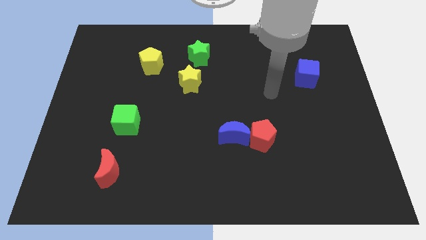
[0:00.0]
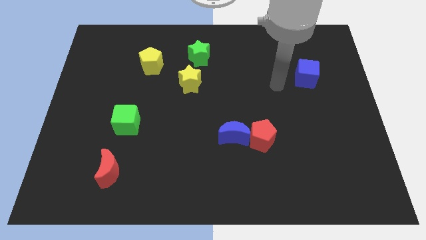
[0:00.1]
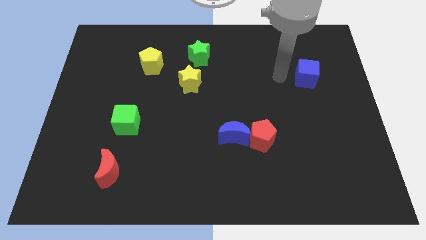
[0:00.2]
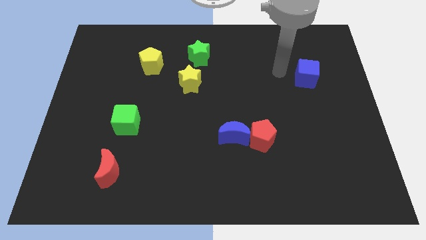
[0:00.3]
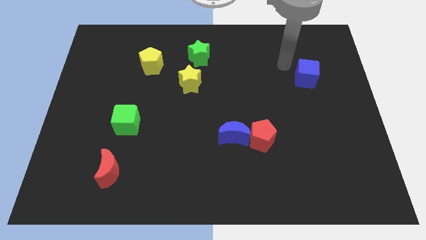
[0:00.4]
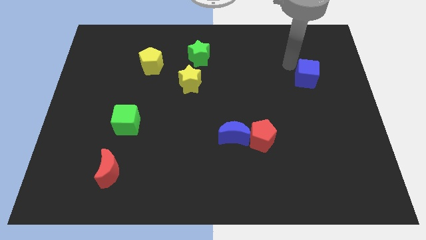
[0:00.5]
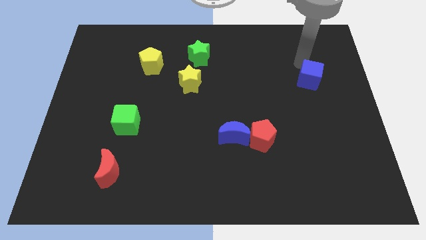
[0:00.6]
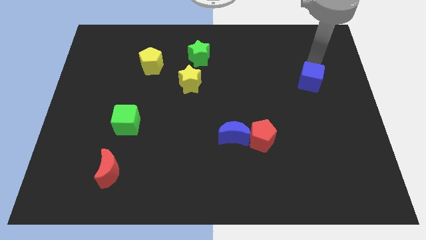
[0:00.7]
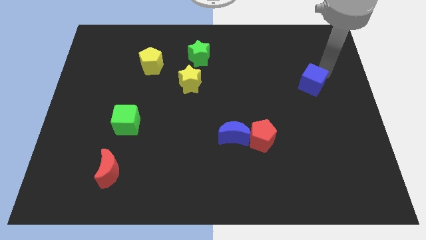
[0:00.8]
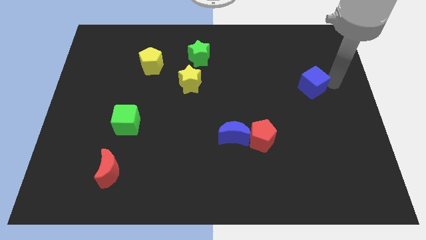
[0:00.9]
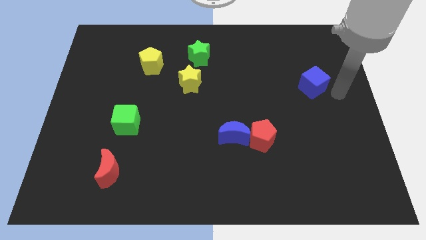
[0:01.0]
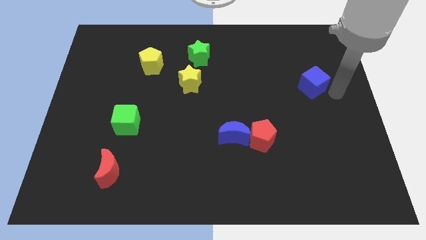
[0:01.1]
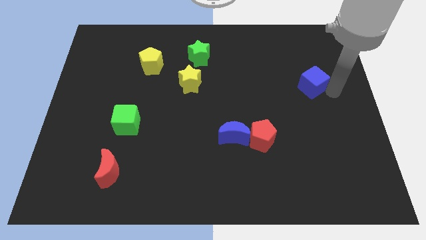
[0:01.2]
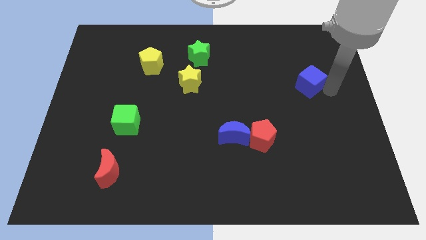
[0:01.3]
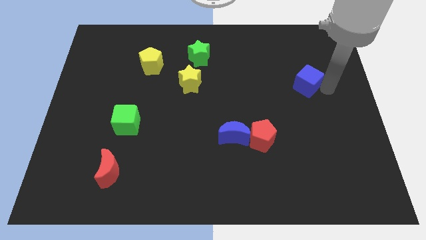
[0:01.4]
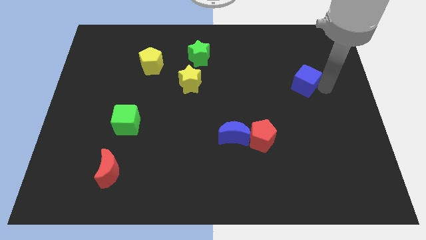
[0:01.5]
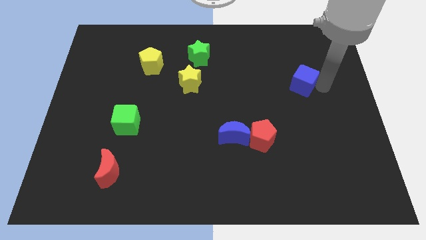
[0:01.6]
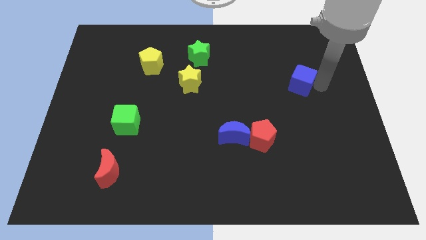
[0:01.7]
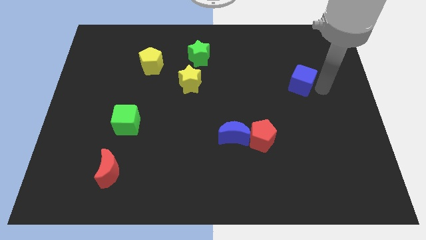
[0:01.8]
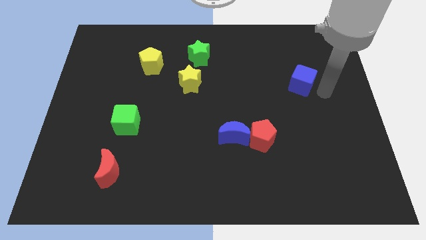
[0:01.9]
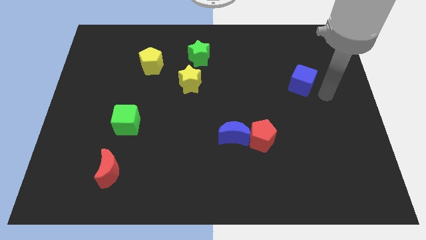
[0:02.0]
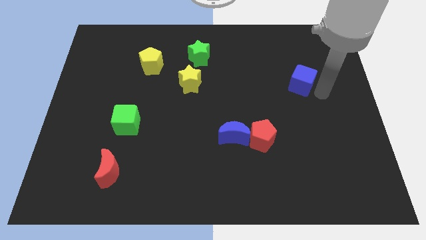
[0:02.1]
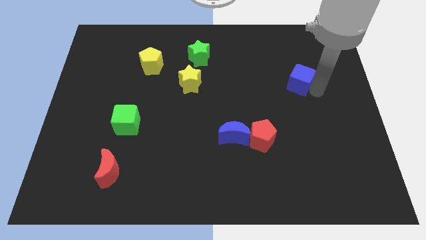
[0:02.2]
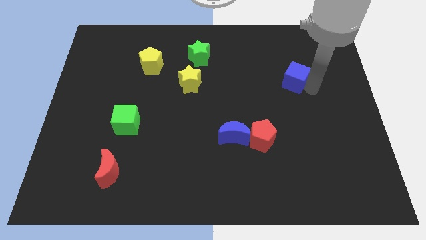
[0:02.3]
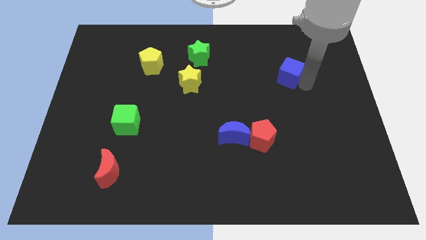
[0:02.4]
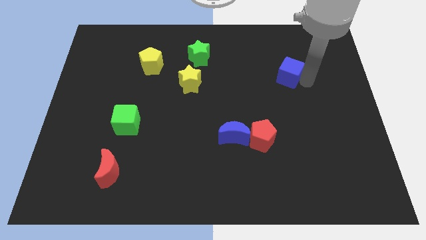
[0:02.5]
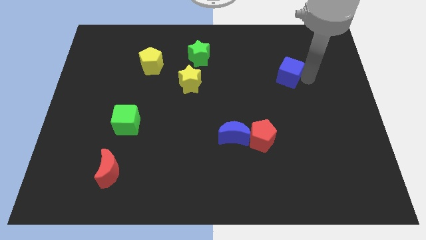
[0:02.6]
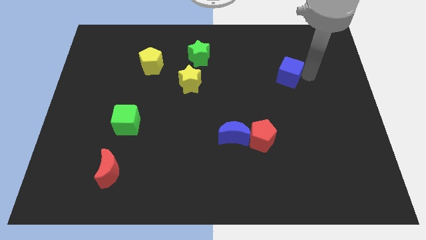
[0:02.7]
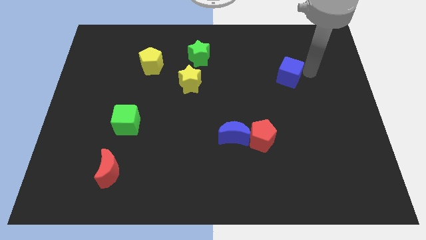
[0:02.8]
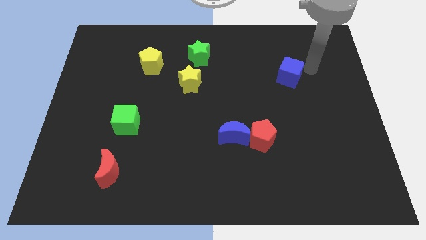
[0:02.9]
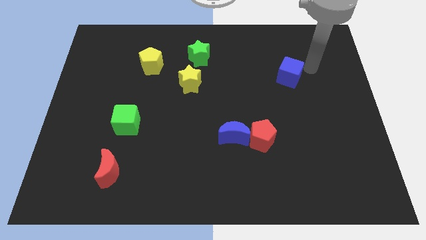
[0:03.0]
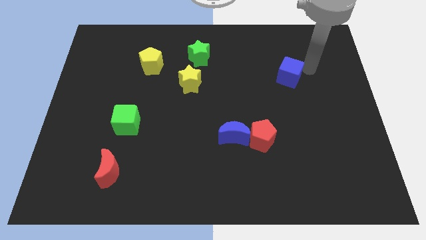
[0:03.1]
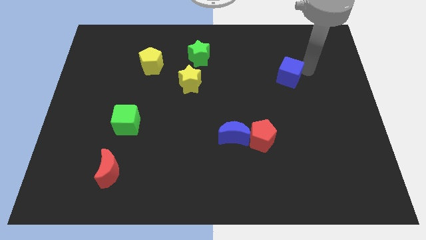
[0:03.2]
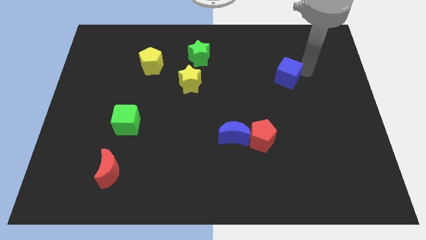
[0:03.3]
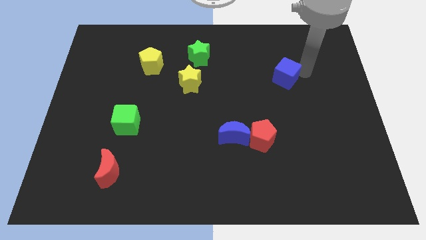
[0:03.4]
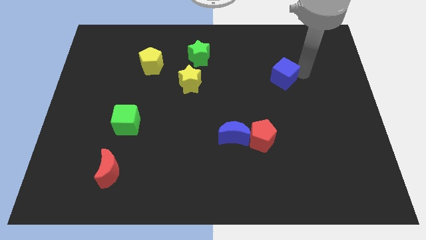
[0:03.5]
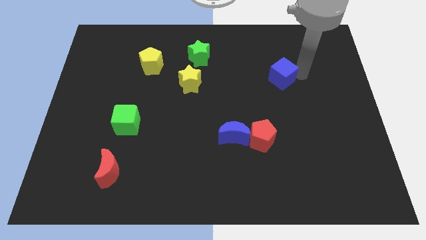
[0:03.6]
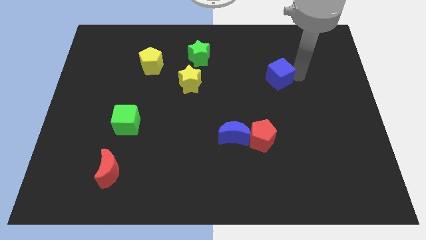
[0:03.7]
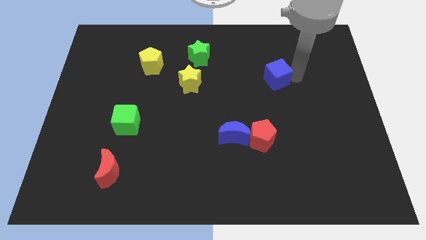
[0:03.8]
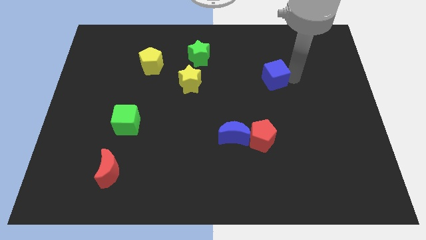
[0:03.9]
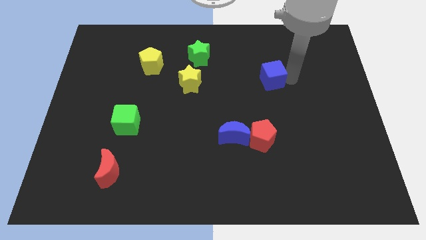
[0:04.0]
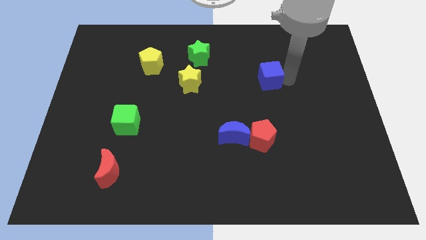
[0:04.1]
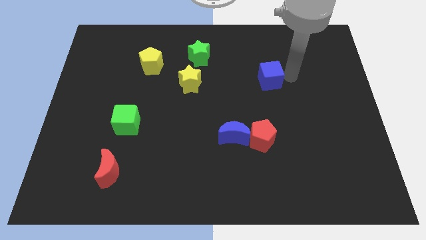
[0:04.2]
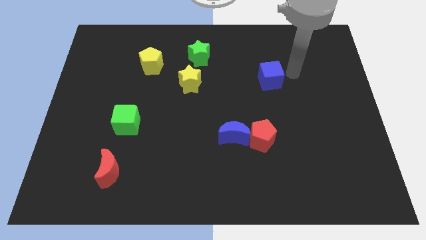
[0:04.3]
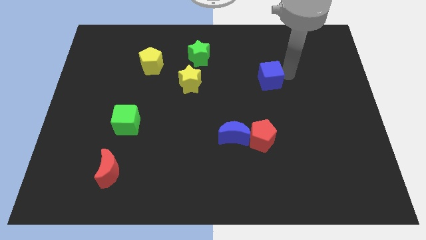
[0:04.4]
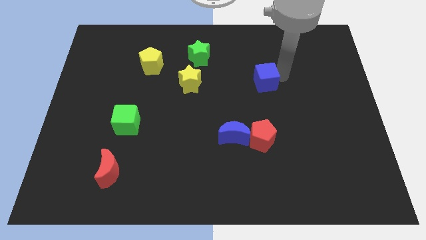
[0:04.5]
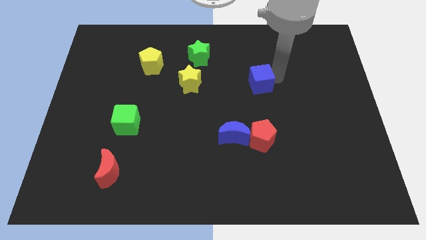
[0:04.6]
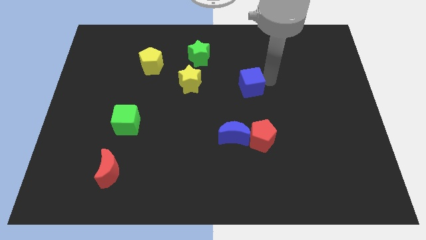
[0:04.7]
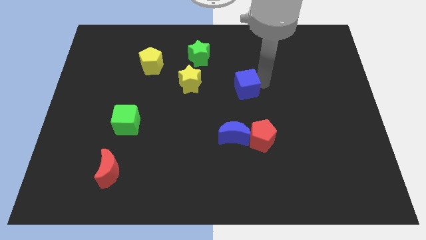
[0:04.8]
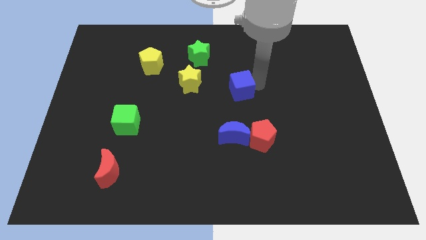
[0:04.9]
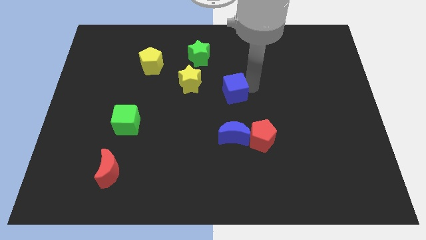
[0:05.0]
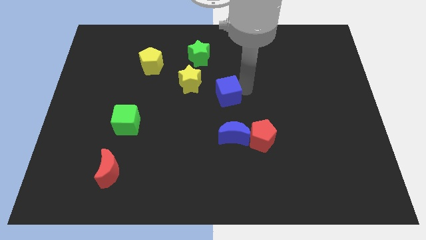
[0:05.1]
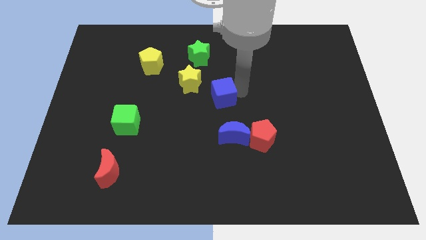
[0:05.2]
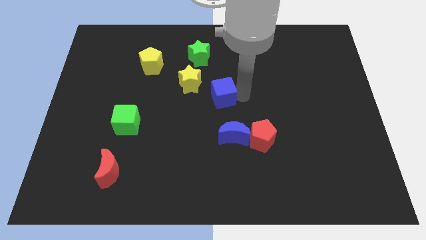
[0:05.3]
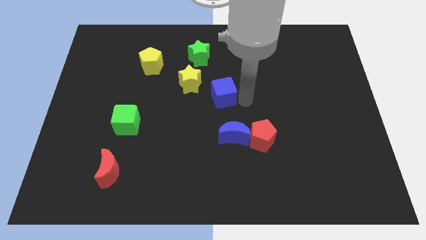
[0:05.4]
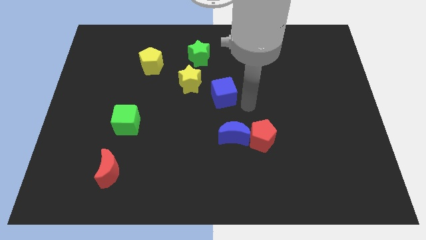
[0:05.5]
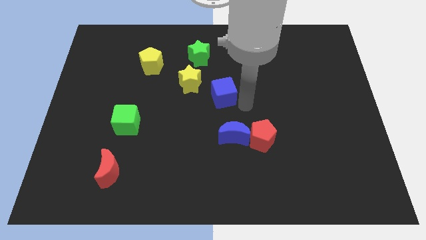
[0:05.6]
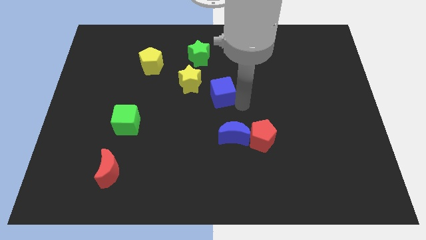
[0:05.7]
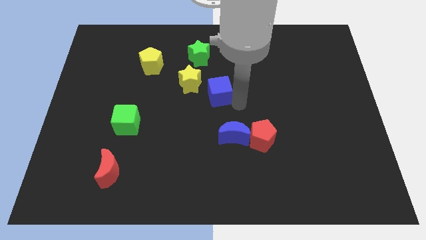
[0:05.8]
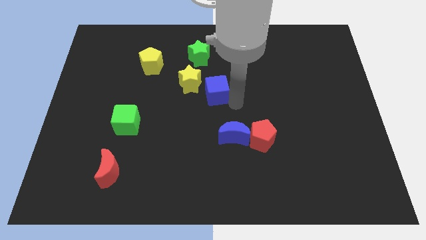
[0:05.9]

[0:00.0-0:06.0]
slide the blue cube to the bottom of the green star

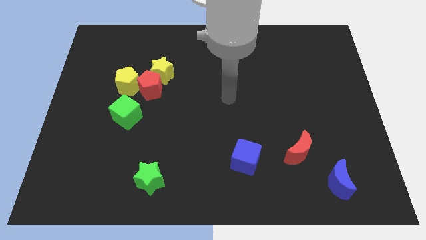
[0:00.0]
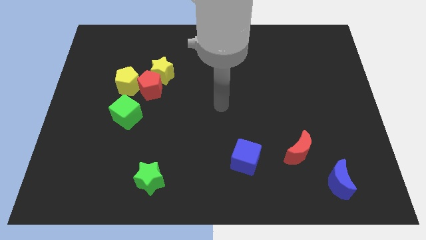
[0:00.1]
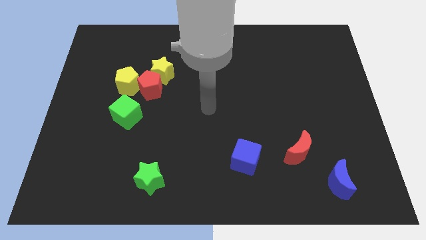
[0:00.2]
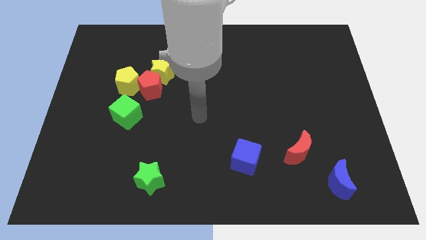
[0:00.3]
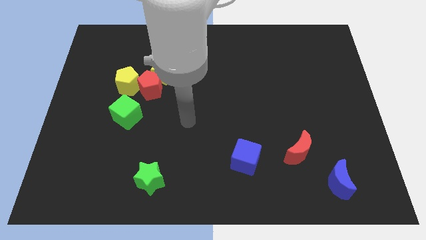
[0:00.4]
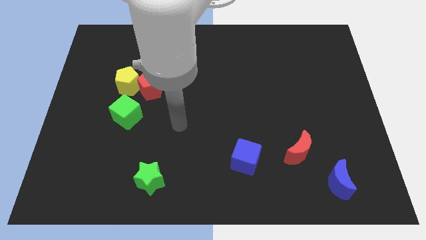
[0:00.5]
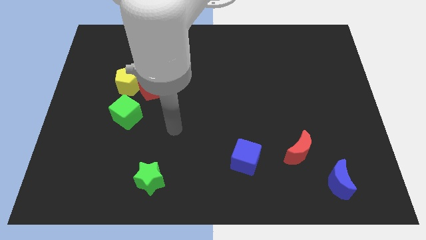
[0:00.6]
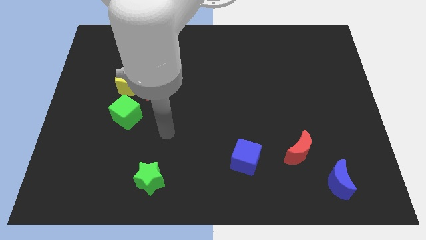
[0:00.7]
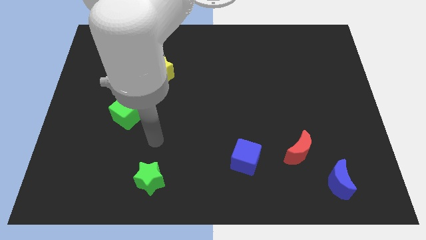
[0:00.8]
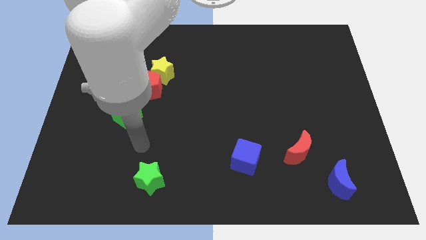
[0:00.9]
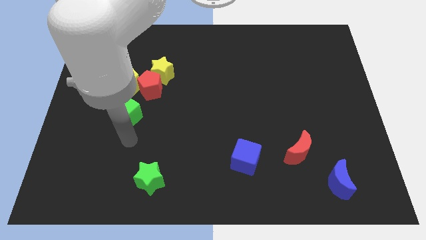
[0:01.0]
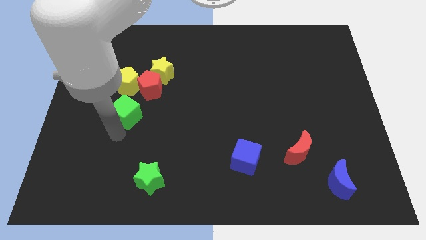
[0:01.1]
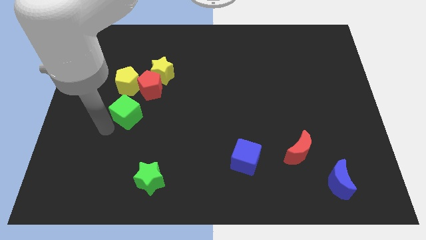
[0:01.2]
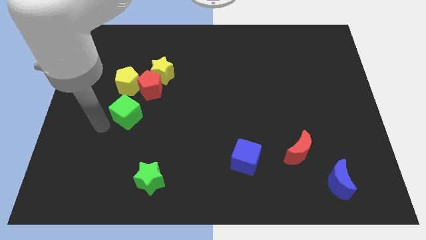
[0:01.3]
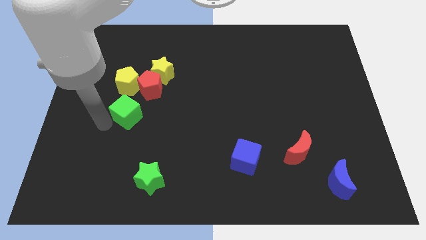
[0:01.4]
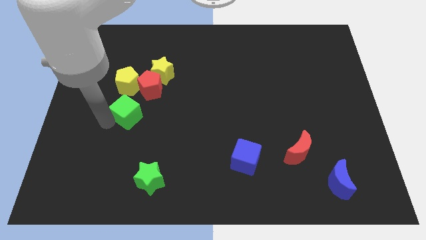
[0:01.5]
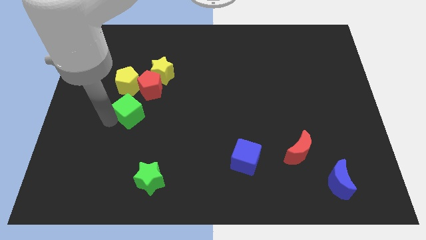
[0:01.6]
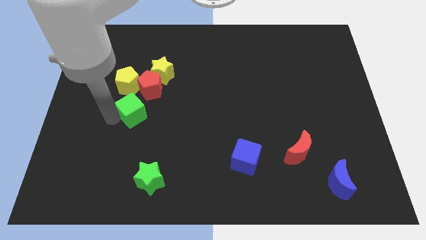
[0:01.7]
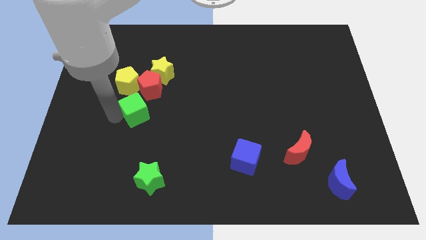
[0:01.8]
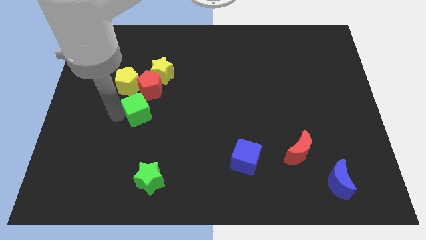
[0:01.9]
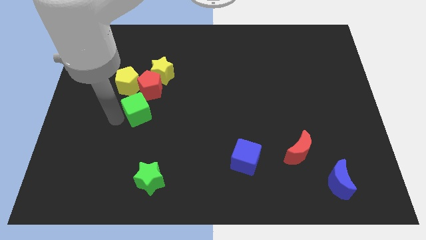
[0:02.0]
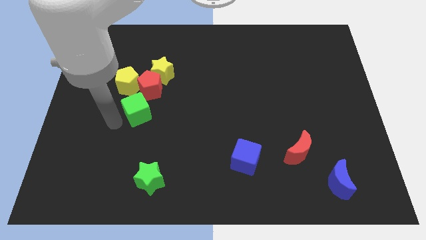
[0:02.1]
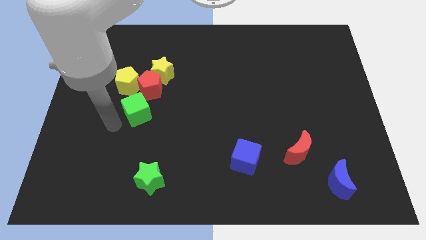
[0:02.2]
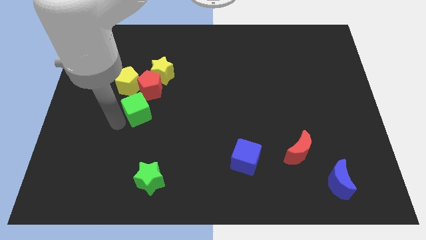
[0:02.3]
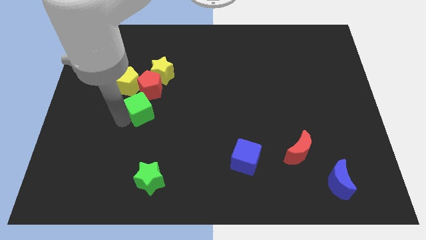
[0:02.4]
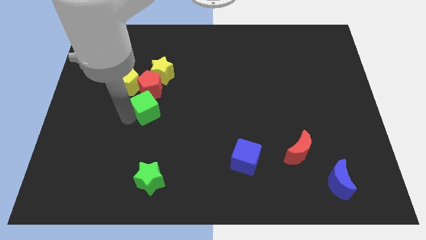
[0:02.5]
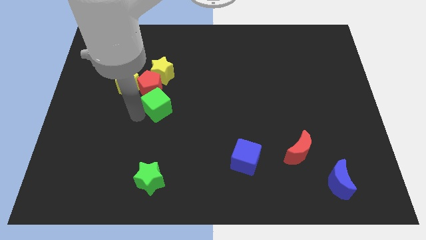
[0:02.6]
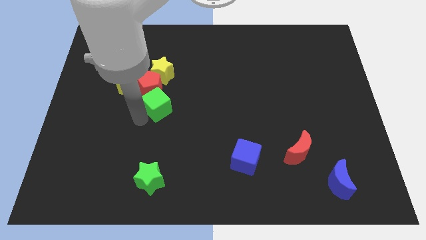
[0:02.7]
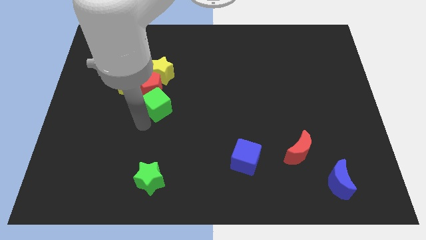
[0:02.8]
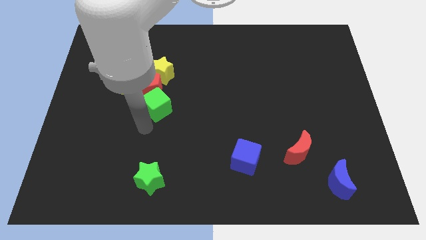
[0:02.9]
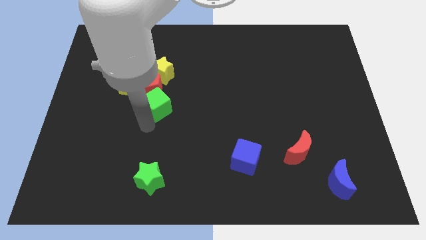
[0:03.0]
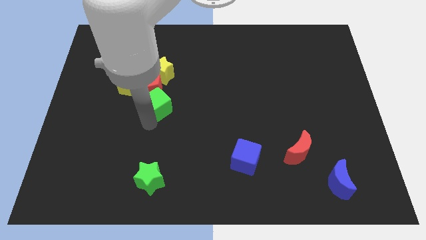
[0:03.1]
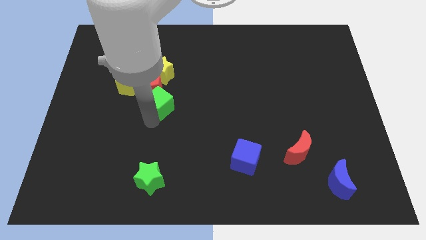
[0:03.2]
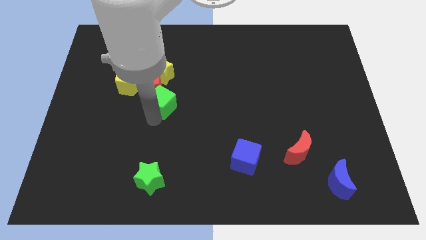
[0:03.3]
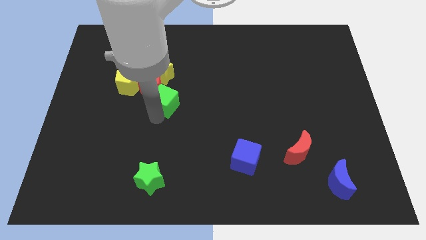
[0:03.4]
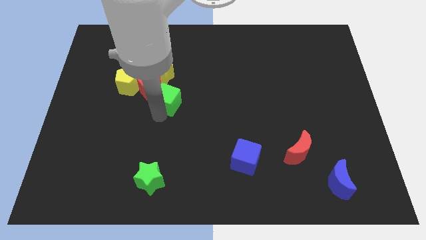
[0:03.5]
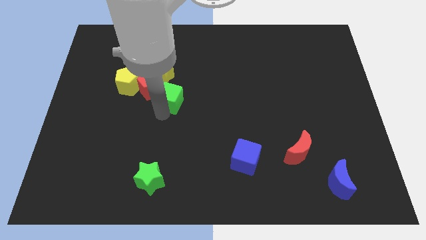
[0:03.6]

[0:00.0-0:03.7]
push the green cube to the right of the yellow pentagon
